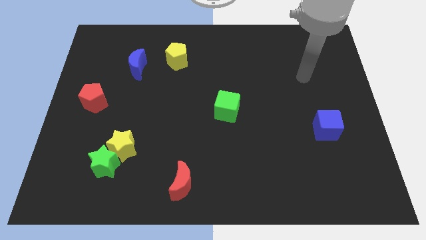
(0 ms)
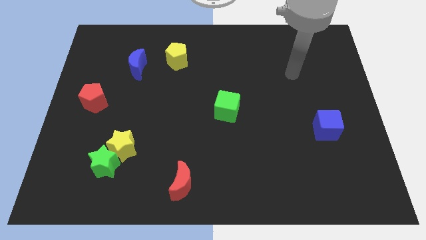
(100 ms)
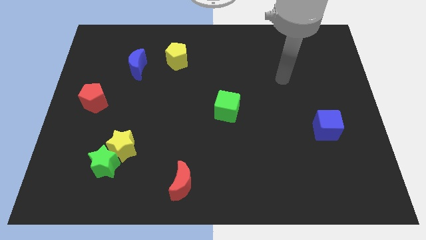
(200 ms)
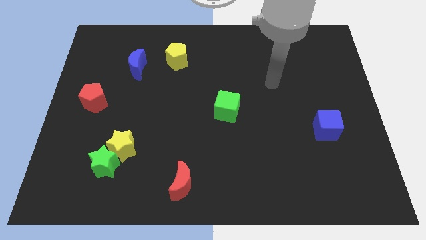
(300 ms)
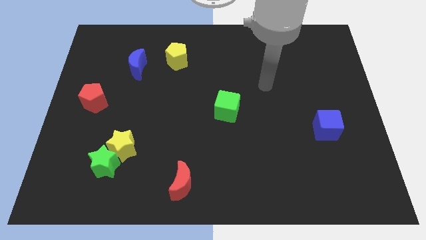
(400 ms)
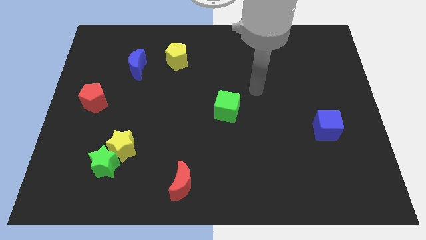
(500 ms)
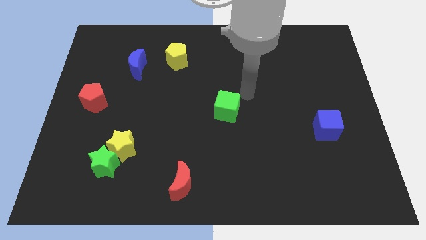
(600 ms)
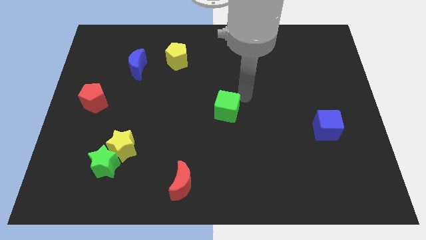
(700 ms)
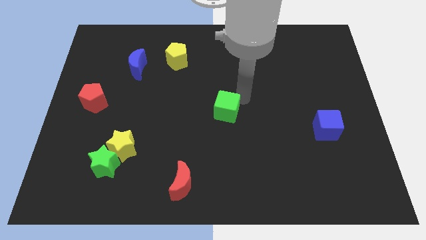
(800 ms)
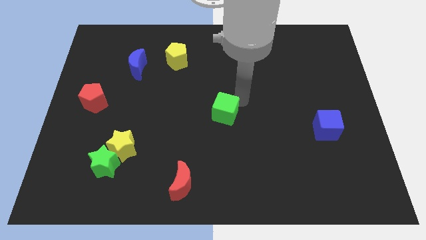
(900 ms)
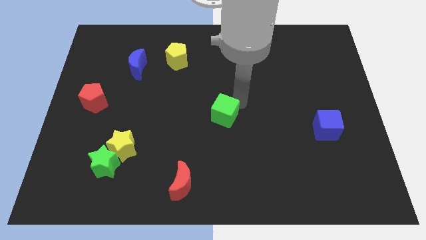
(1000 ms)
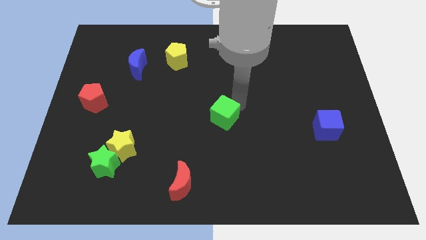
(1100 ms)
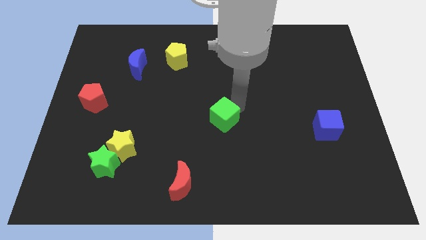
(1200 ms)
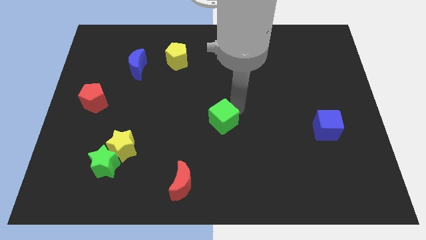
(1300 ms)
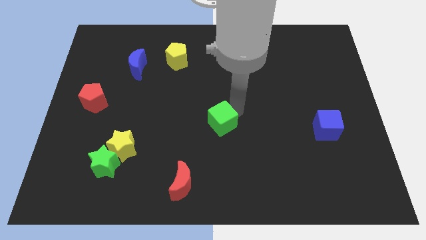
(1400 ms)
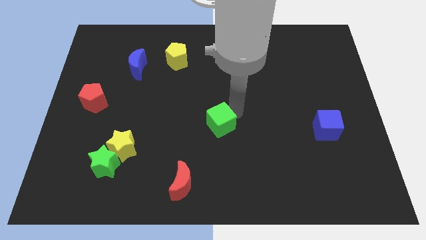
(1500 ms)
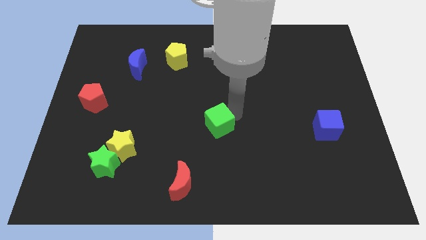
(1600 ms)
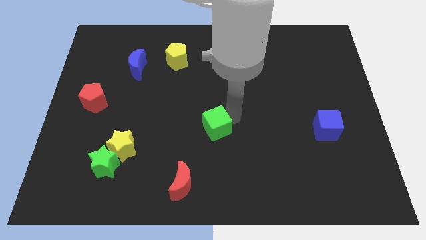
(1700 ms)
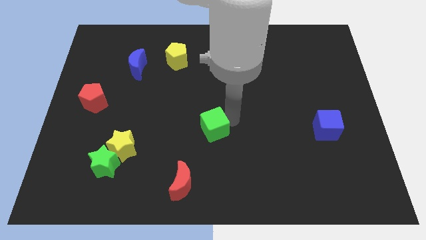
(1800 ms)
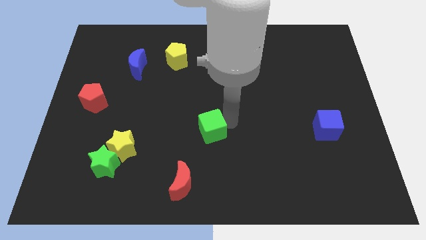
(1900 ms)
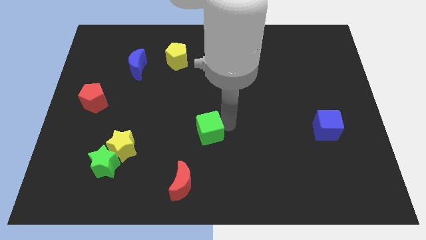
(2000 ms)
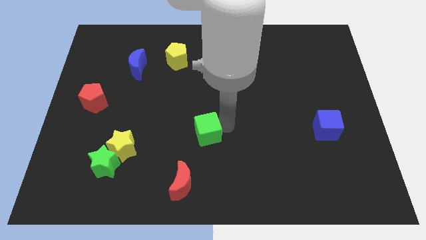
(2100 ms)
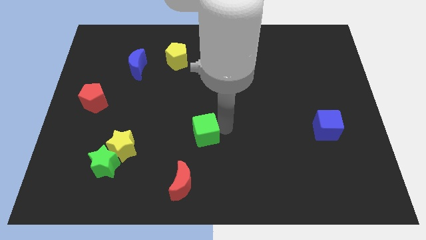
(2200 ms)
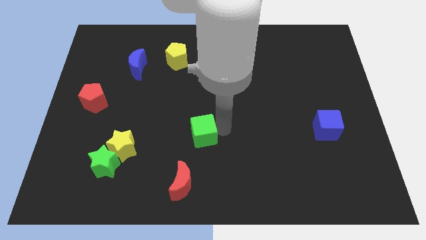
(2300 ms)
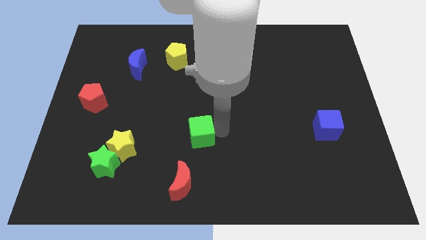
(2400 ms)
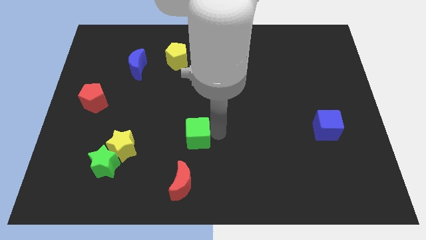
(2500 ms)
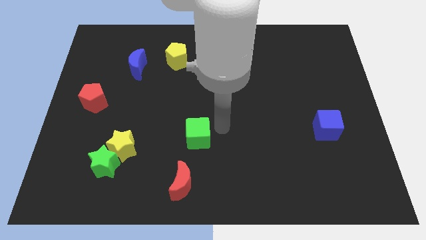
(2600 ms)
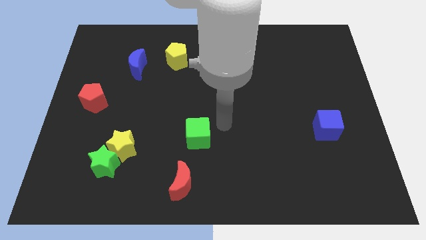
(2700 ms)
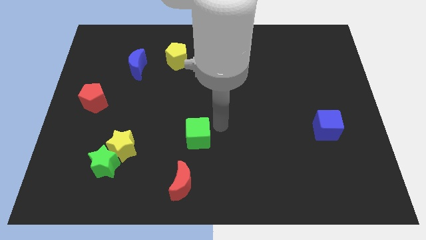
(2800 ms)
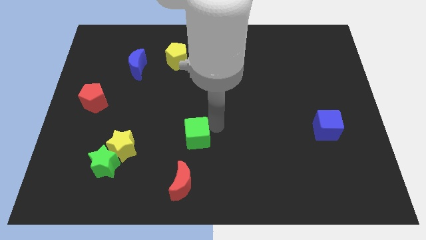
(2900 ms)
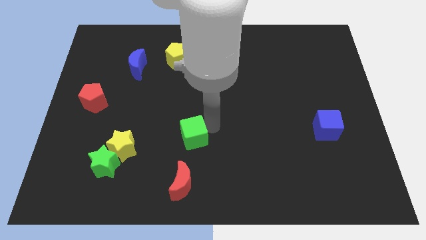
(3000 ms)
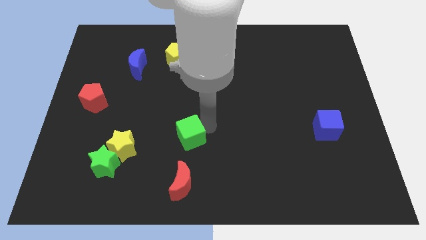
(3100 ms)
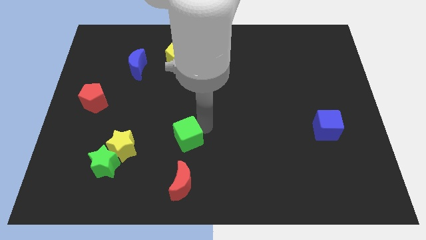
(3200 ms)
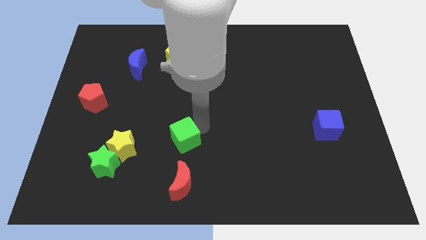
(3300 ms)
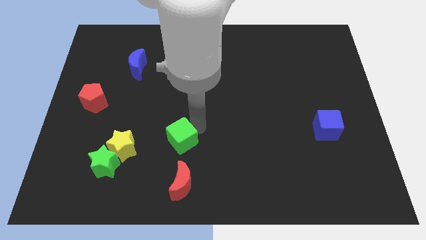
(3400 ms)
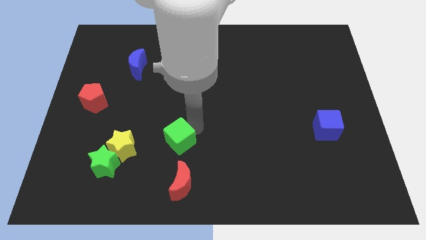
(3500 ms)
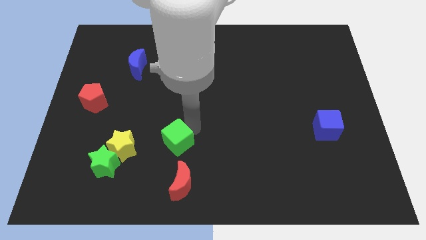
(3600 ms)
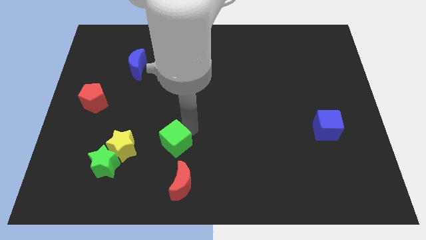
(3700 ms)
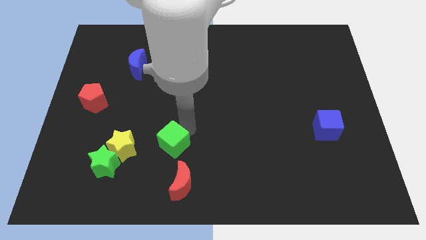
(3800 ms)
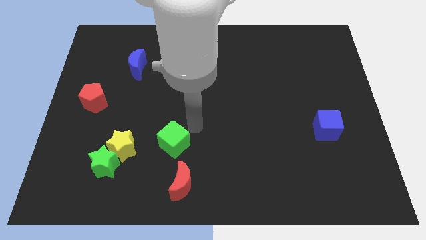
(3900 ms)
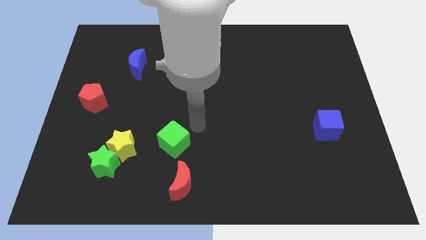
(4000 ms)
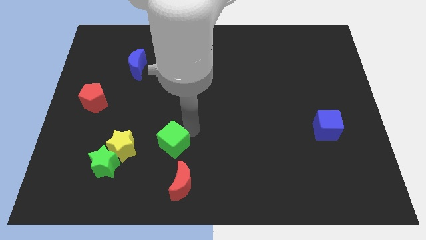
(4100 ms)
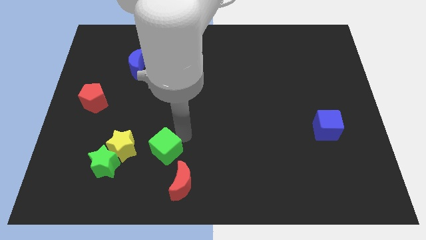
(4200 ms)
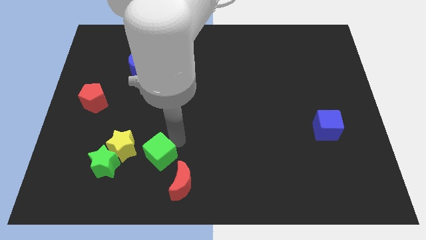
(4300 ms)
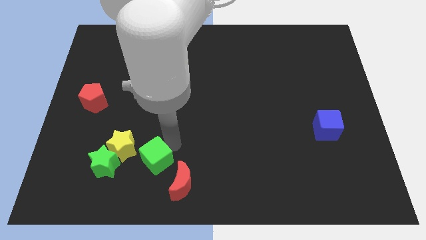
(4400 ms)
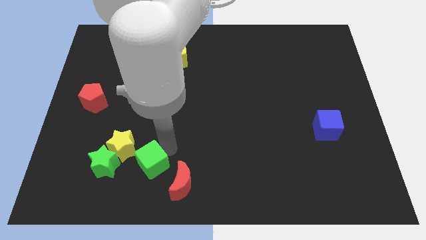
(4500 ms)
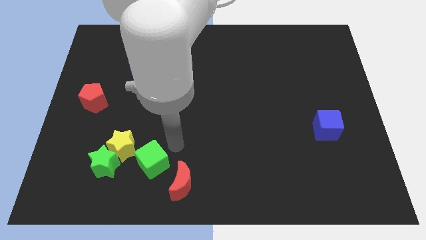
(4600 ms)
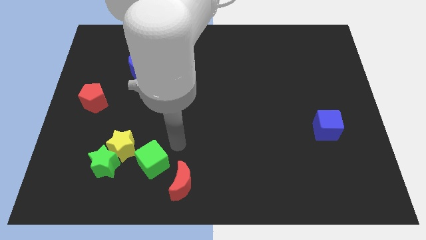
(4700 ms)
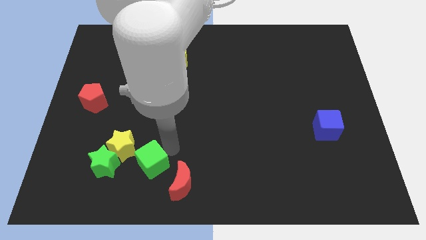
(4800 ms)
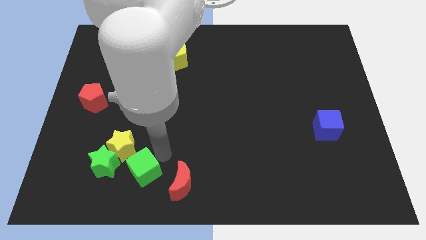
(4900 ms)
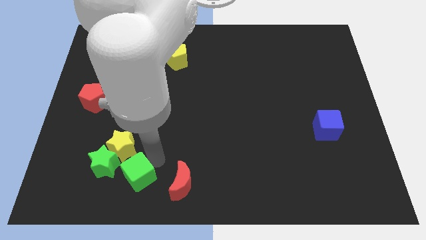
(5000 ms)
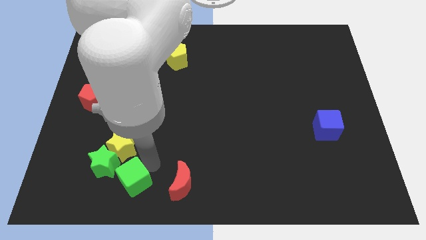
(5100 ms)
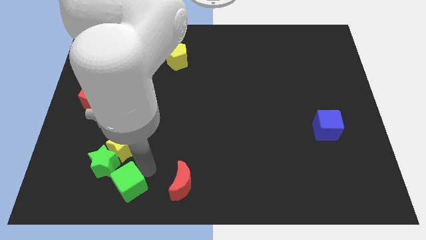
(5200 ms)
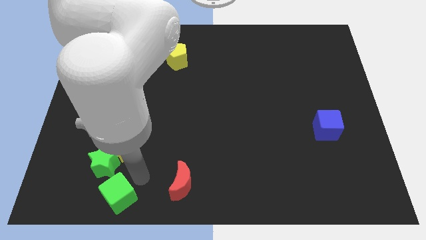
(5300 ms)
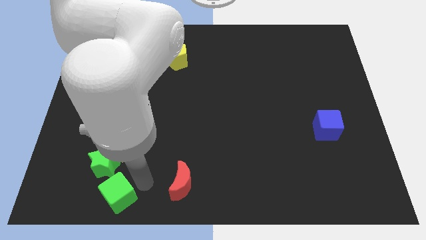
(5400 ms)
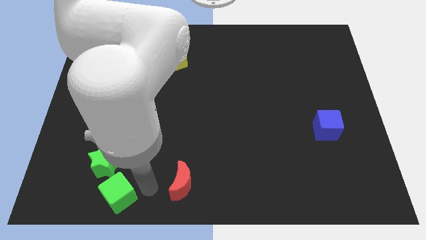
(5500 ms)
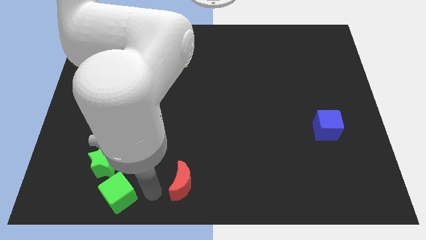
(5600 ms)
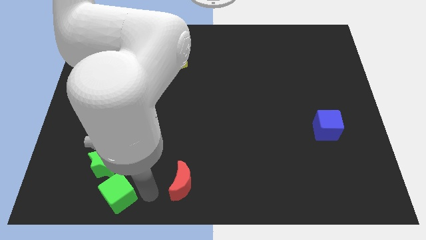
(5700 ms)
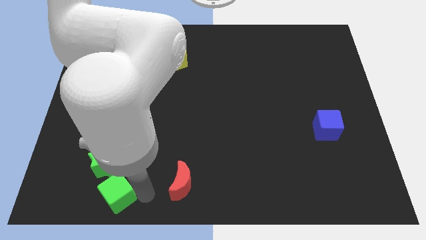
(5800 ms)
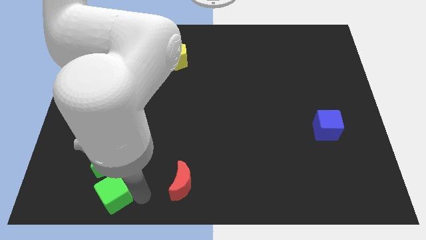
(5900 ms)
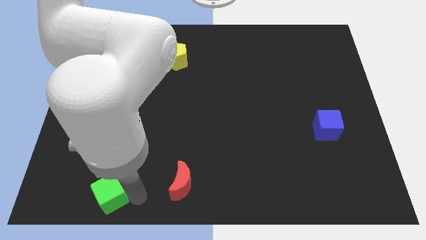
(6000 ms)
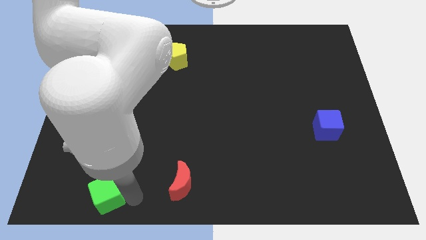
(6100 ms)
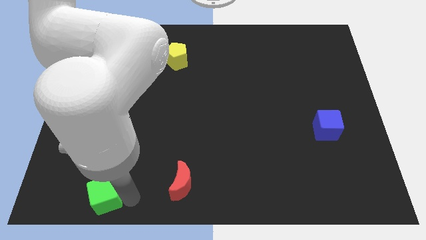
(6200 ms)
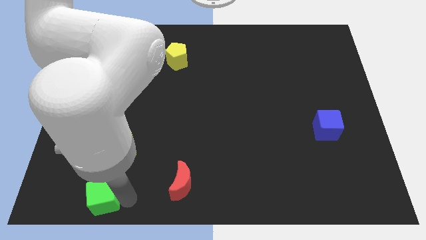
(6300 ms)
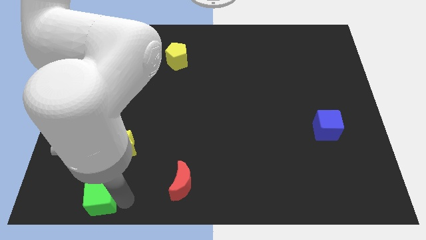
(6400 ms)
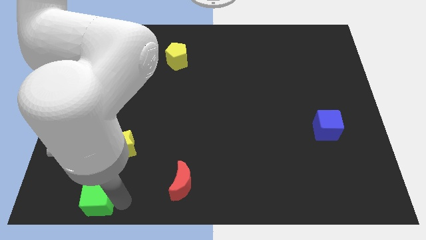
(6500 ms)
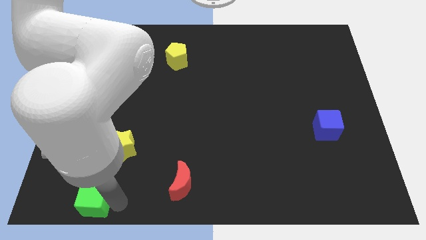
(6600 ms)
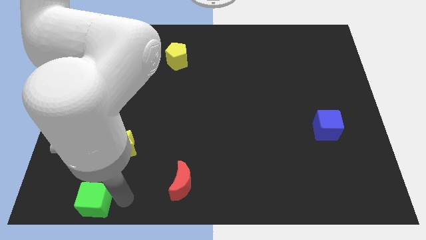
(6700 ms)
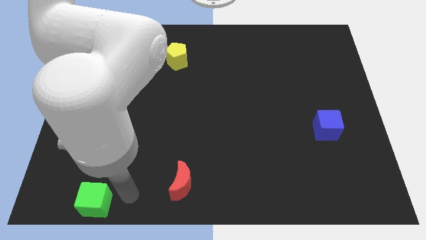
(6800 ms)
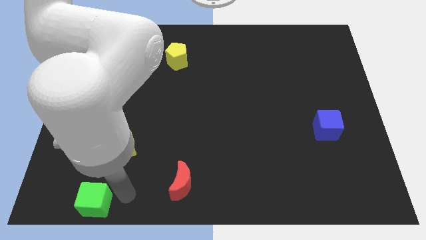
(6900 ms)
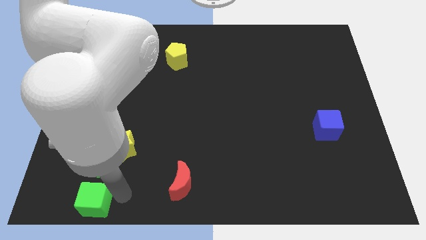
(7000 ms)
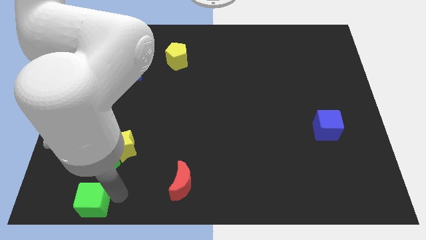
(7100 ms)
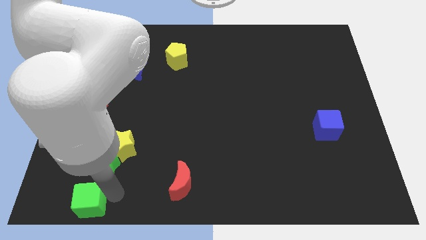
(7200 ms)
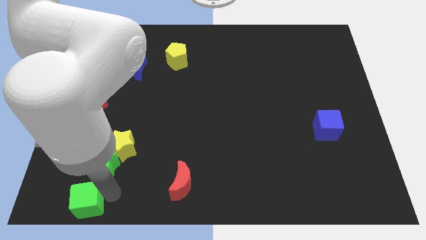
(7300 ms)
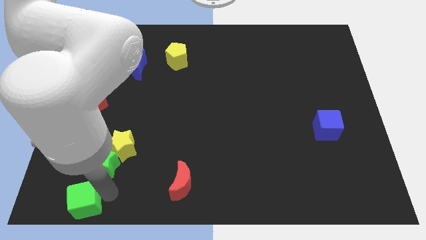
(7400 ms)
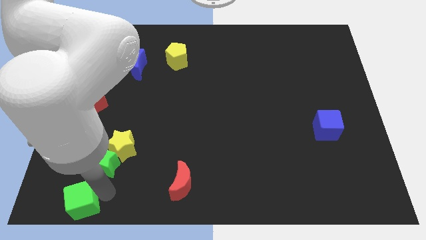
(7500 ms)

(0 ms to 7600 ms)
slide the green cube to the lower left corner
